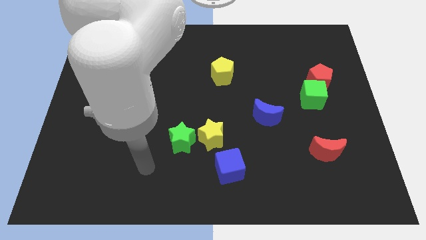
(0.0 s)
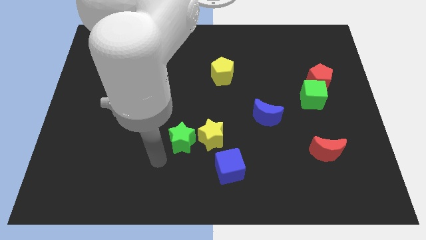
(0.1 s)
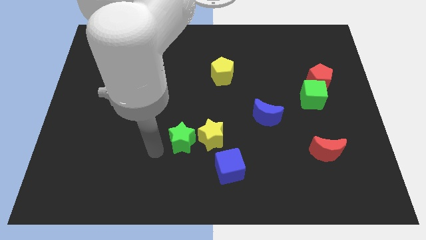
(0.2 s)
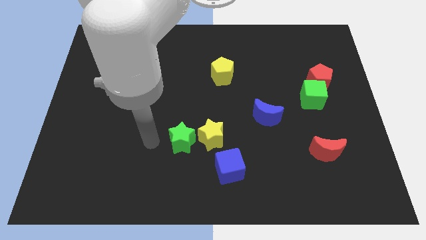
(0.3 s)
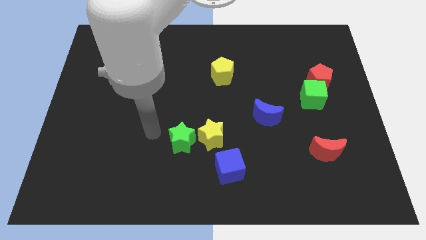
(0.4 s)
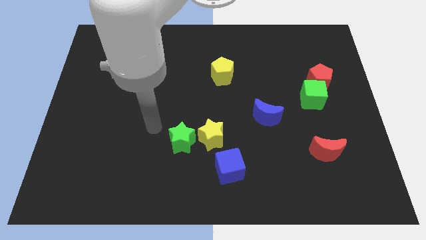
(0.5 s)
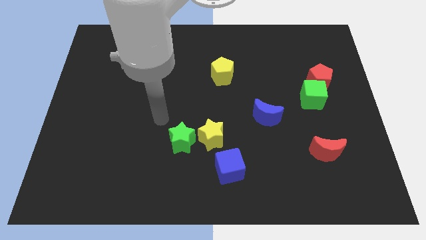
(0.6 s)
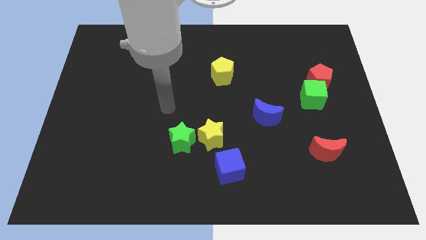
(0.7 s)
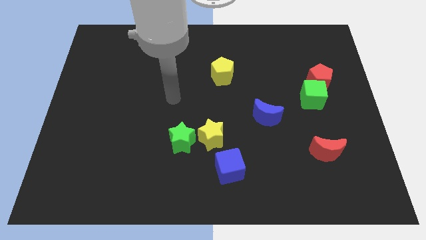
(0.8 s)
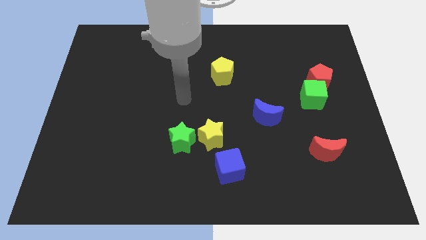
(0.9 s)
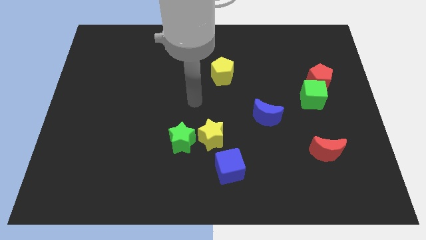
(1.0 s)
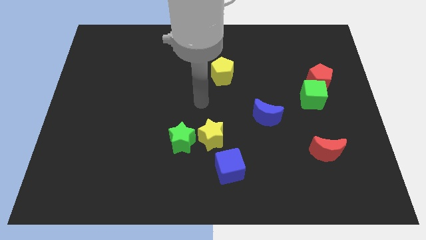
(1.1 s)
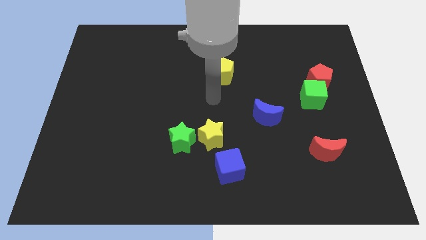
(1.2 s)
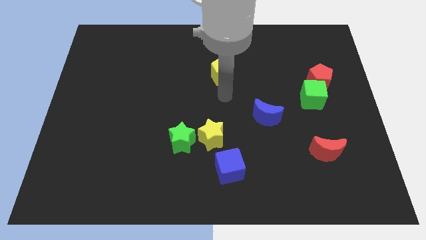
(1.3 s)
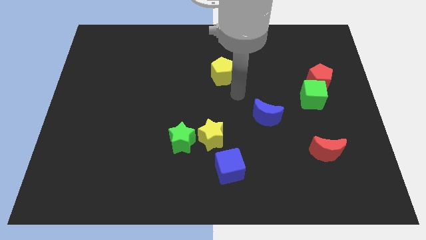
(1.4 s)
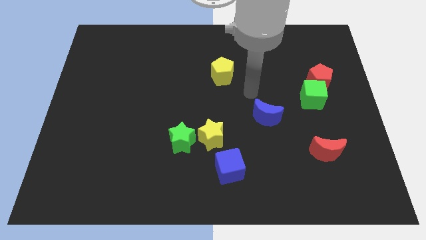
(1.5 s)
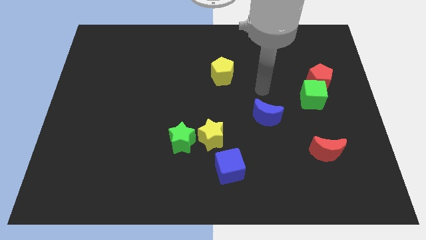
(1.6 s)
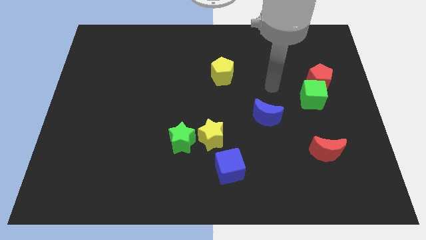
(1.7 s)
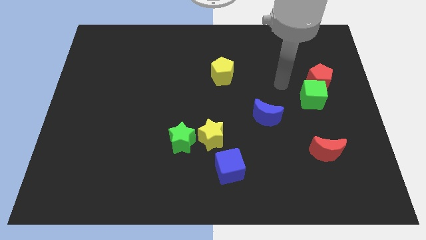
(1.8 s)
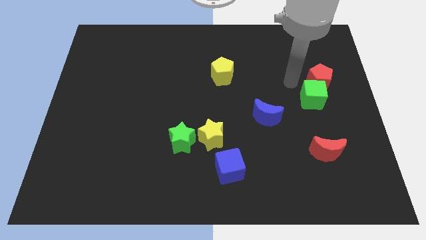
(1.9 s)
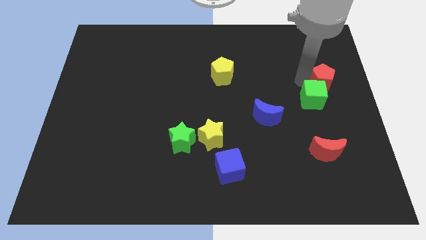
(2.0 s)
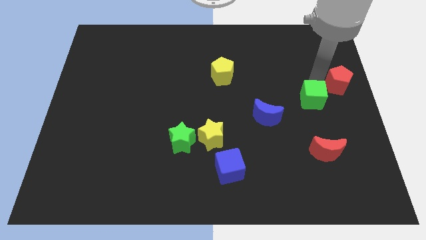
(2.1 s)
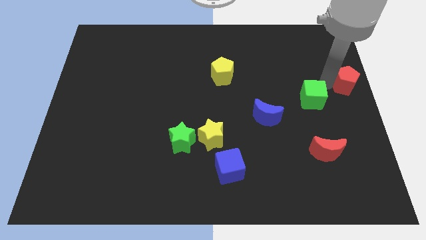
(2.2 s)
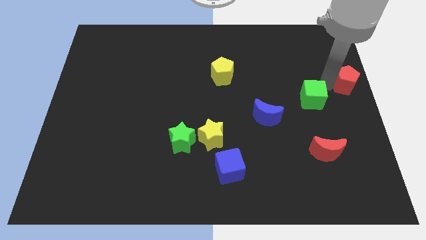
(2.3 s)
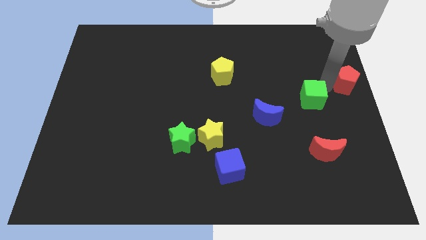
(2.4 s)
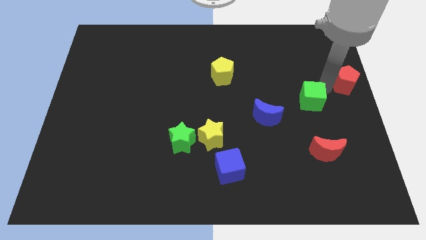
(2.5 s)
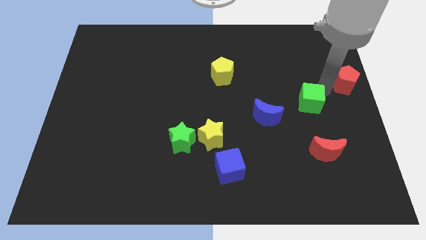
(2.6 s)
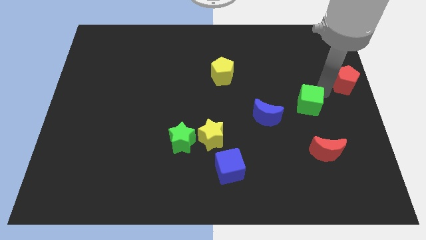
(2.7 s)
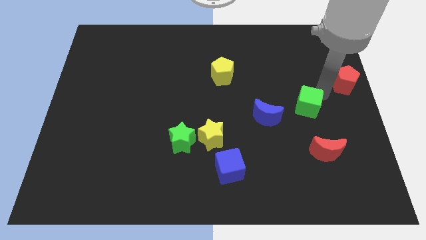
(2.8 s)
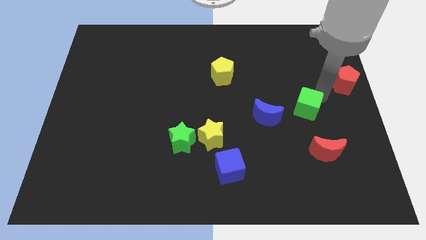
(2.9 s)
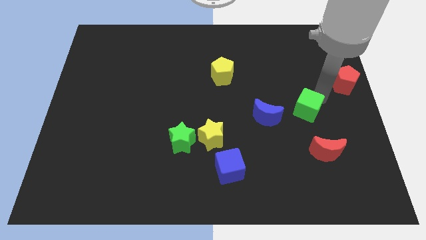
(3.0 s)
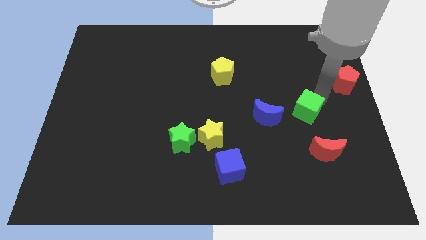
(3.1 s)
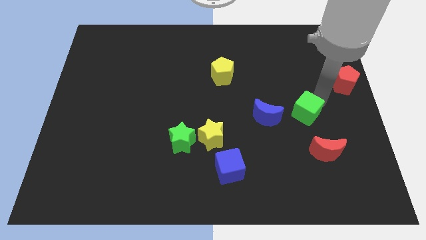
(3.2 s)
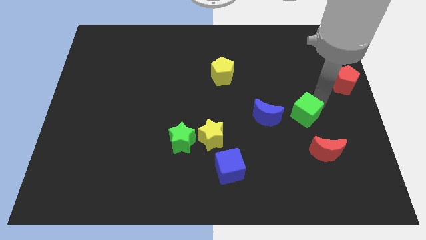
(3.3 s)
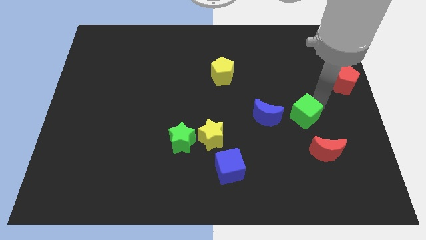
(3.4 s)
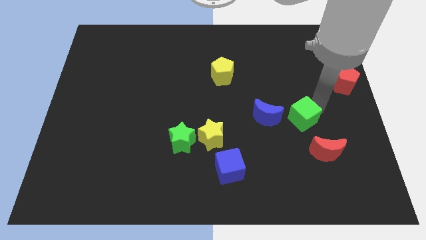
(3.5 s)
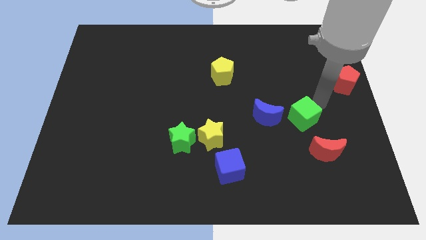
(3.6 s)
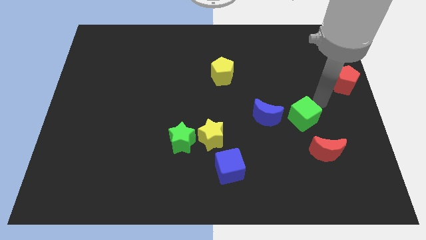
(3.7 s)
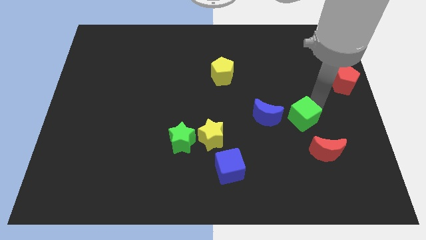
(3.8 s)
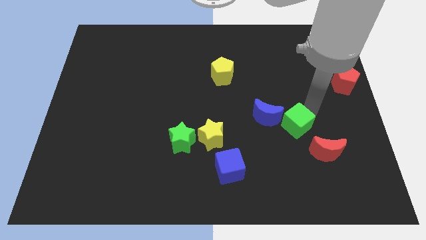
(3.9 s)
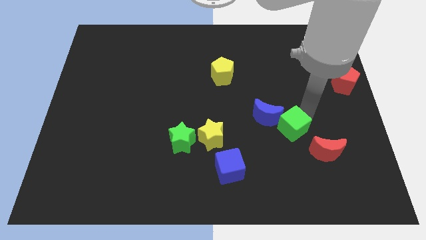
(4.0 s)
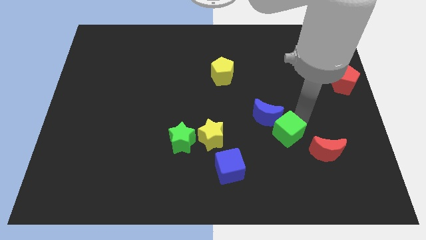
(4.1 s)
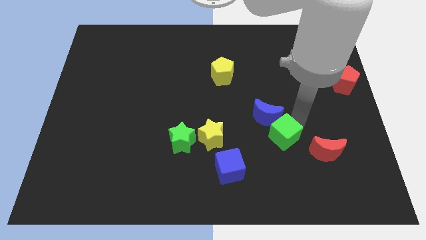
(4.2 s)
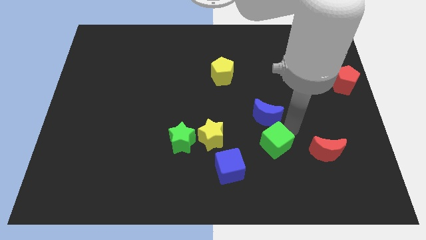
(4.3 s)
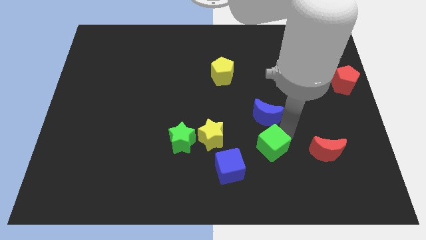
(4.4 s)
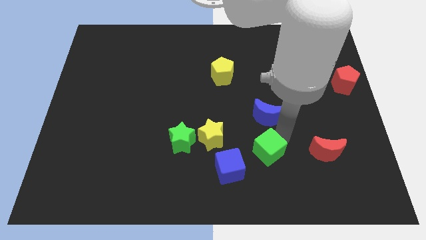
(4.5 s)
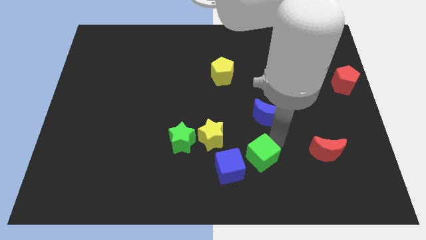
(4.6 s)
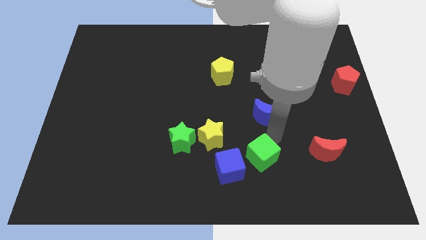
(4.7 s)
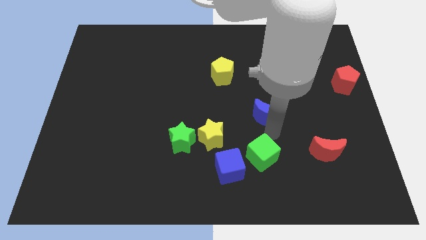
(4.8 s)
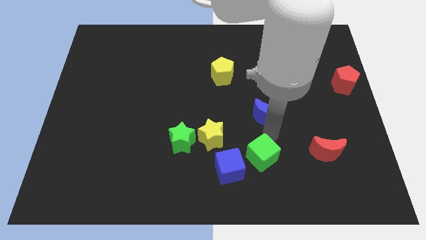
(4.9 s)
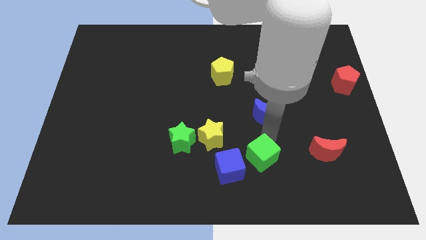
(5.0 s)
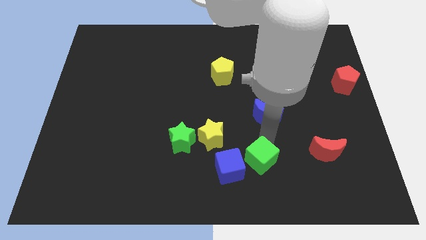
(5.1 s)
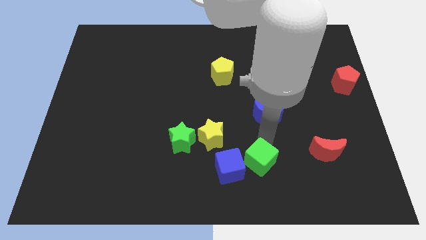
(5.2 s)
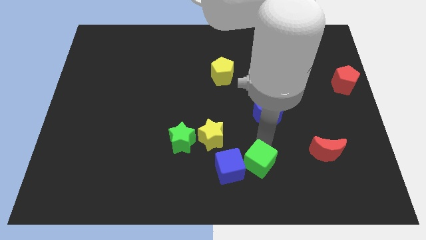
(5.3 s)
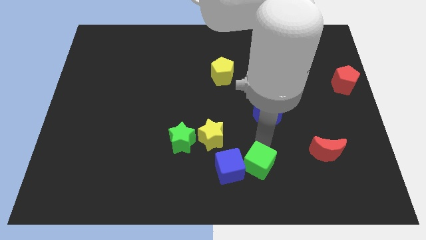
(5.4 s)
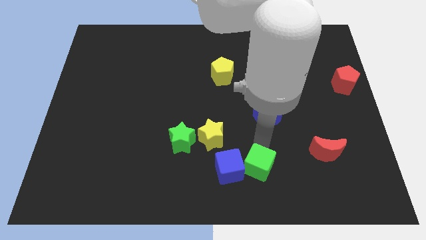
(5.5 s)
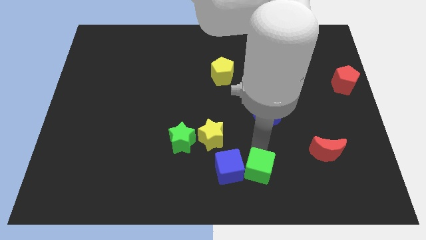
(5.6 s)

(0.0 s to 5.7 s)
move the green cube to the bottom

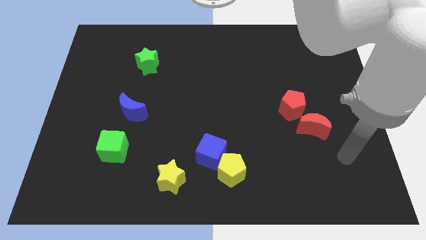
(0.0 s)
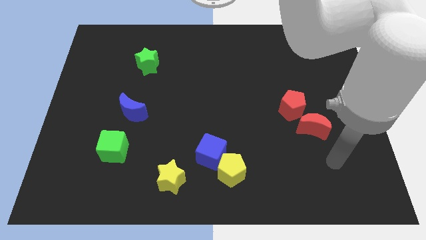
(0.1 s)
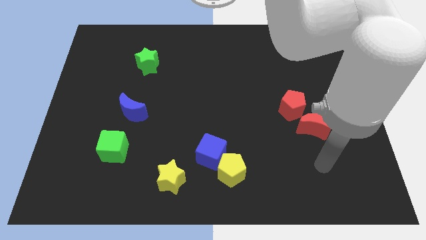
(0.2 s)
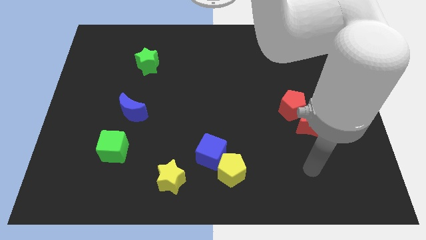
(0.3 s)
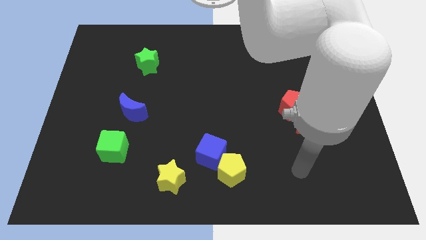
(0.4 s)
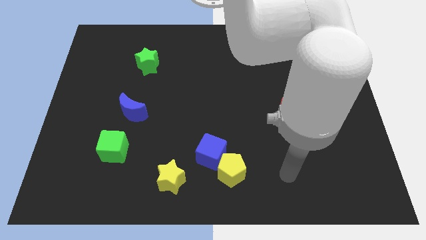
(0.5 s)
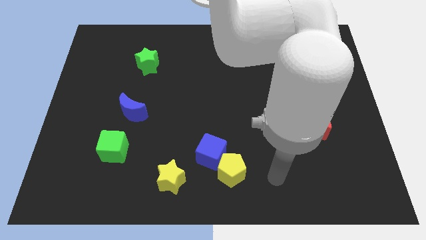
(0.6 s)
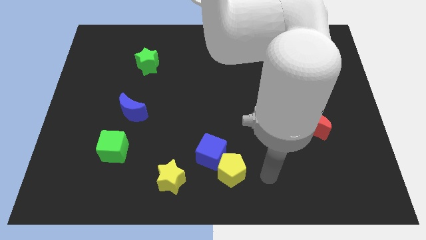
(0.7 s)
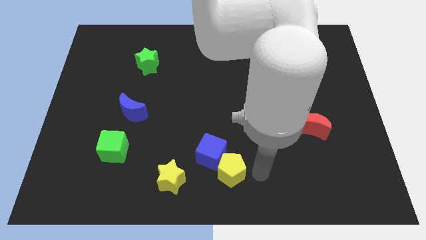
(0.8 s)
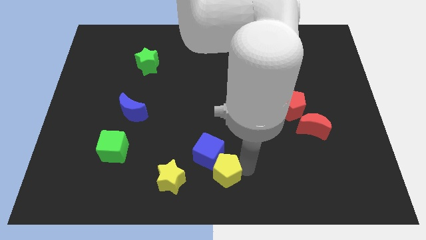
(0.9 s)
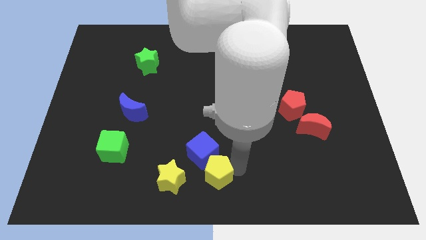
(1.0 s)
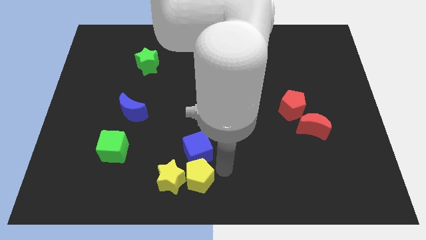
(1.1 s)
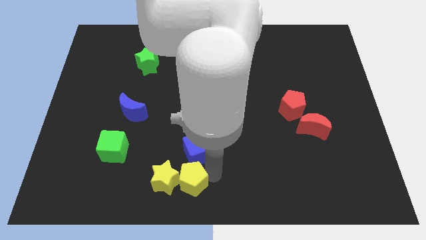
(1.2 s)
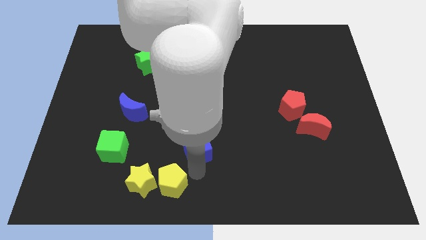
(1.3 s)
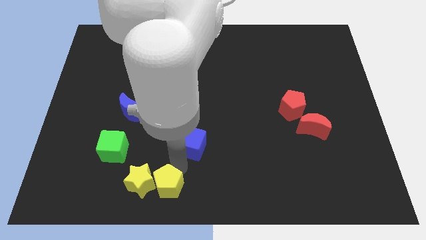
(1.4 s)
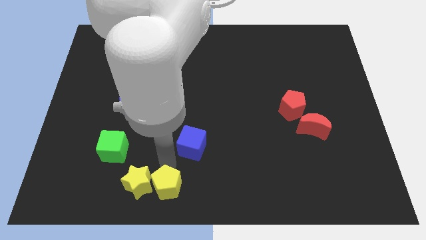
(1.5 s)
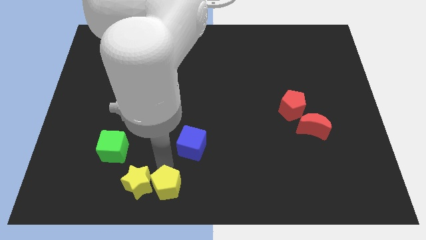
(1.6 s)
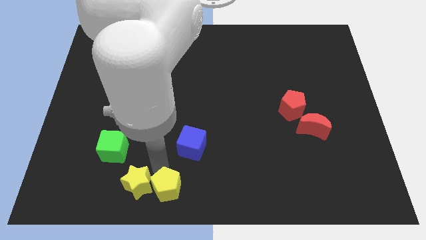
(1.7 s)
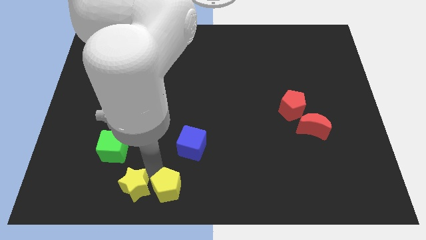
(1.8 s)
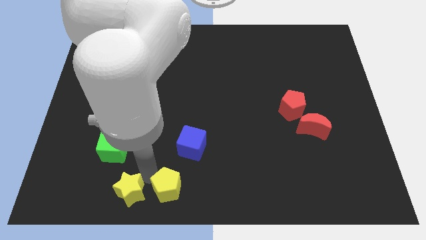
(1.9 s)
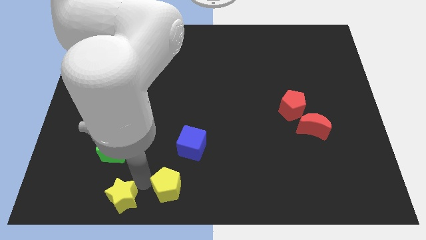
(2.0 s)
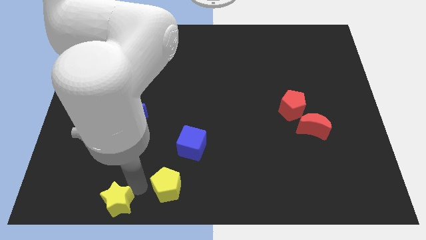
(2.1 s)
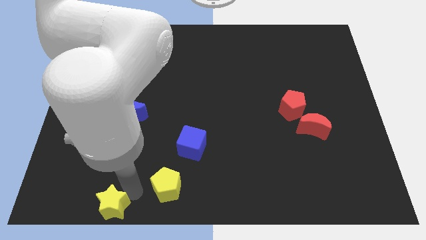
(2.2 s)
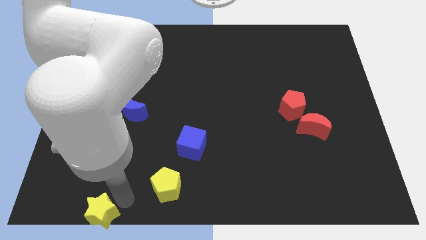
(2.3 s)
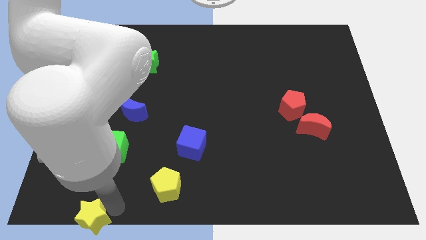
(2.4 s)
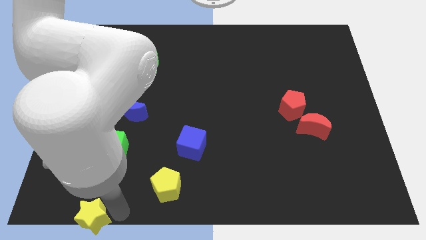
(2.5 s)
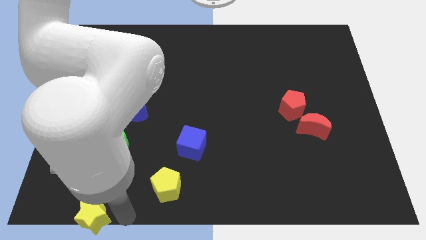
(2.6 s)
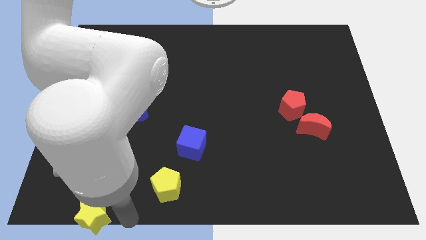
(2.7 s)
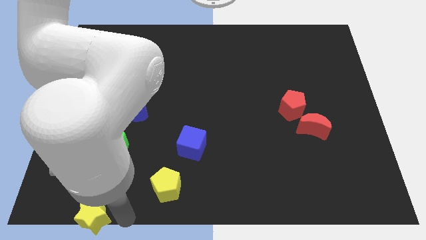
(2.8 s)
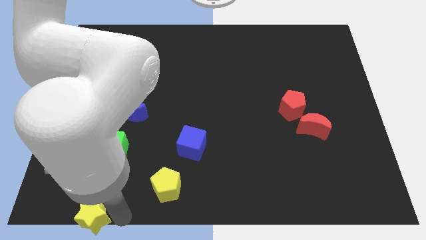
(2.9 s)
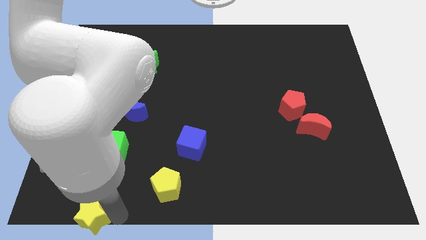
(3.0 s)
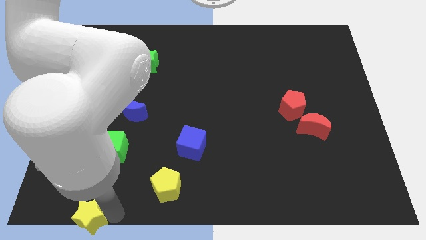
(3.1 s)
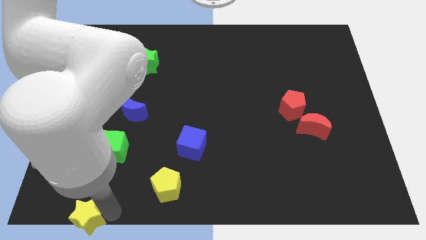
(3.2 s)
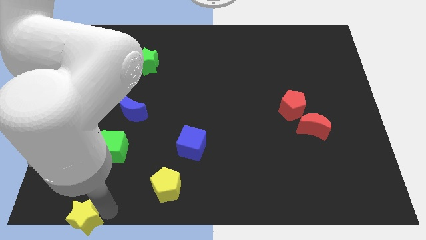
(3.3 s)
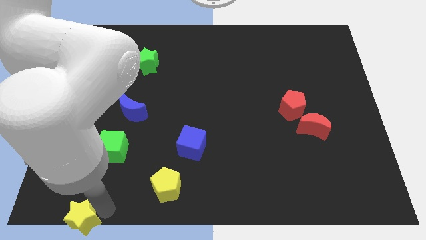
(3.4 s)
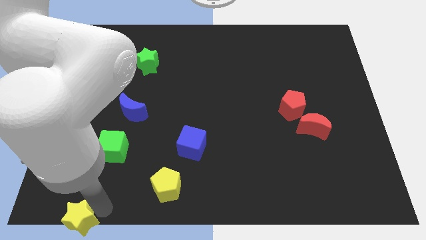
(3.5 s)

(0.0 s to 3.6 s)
slide the yellow star to the bottom left of the board
